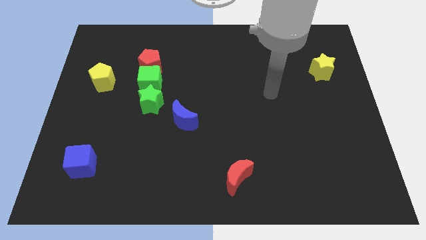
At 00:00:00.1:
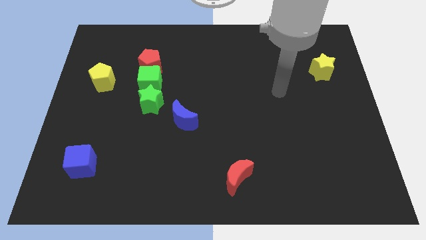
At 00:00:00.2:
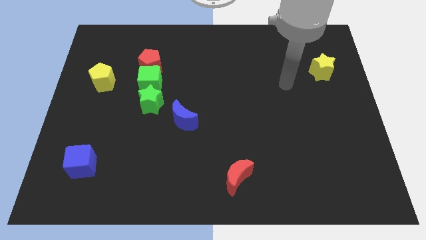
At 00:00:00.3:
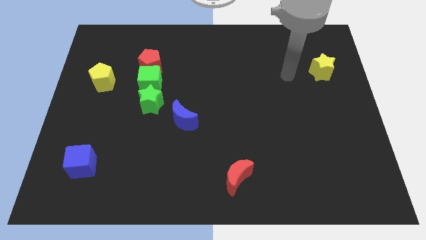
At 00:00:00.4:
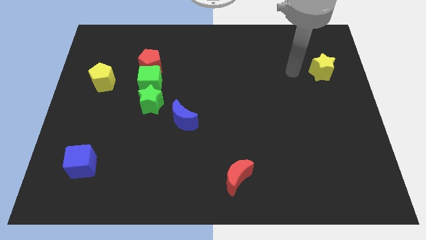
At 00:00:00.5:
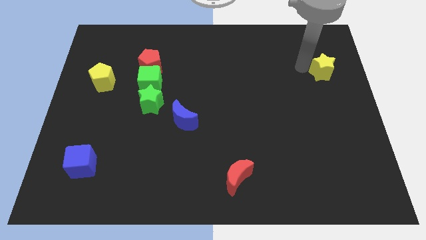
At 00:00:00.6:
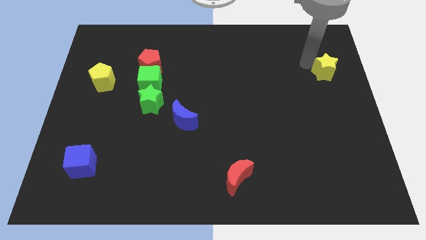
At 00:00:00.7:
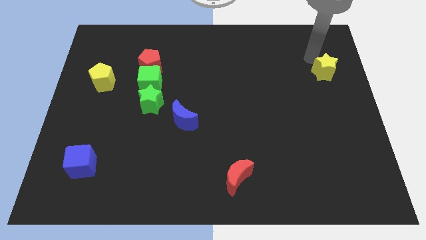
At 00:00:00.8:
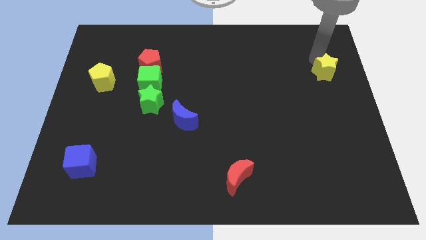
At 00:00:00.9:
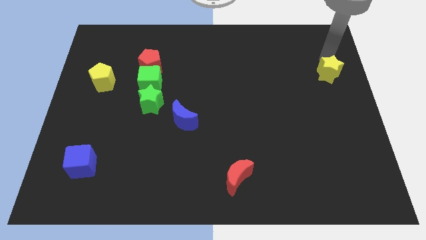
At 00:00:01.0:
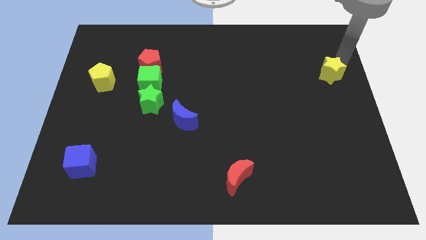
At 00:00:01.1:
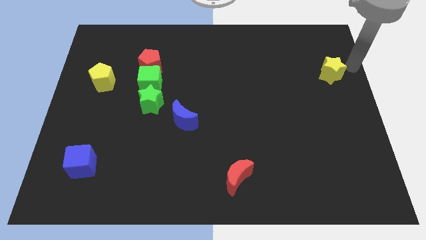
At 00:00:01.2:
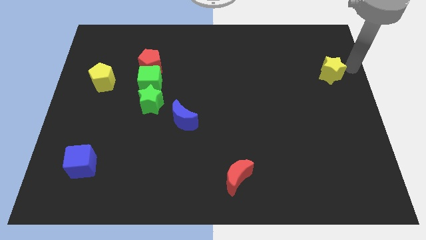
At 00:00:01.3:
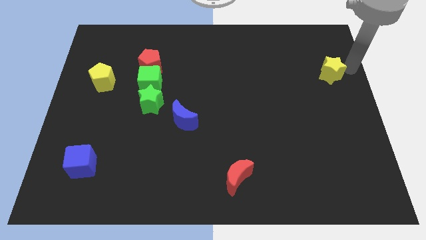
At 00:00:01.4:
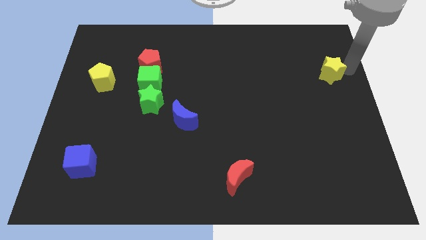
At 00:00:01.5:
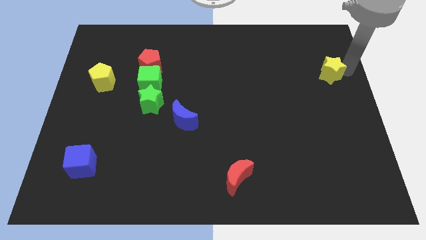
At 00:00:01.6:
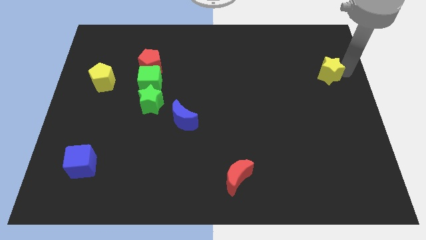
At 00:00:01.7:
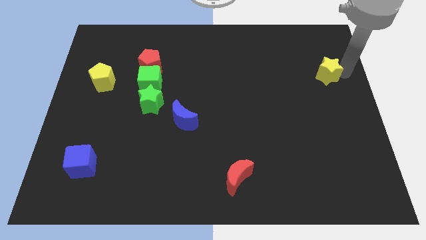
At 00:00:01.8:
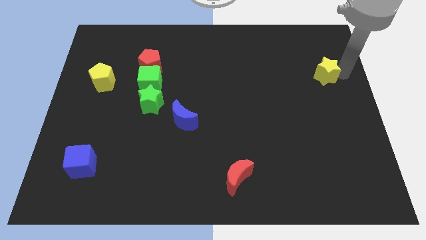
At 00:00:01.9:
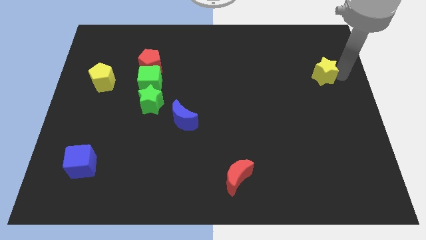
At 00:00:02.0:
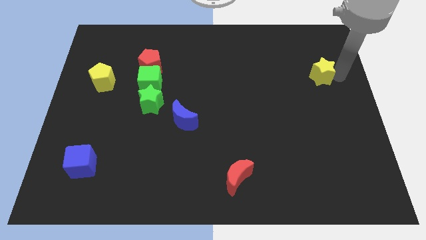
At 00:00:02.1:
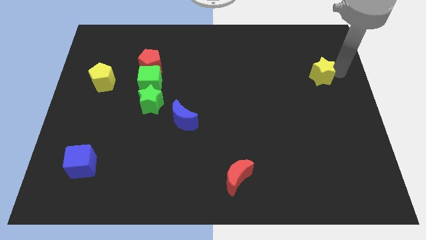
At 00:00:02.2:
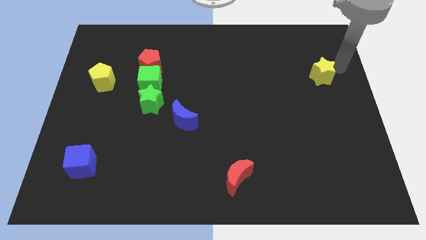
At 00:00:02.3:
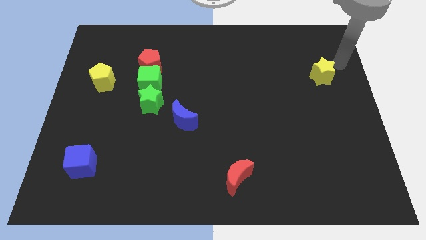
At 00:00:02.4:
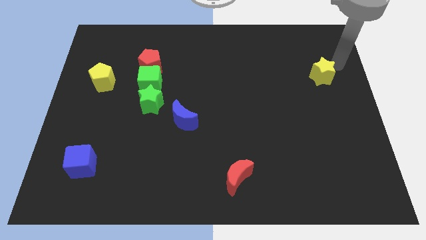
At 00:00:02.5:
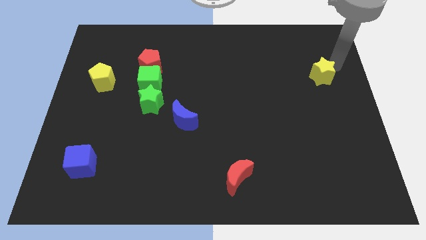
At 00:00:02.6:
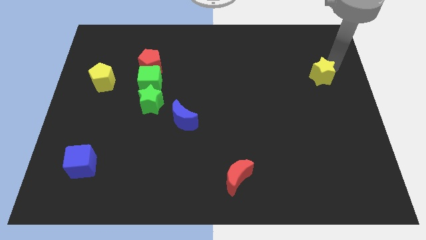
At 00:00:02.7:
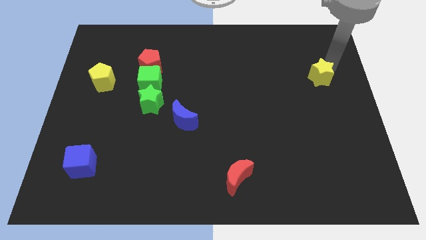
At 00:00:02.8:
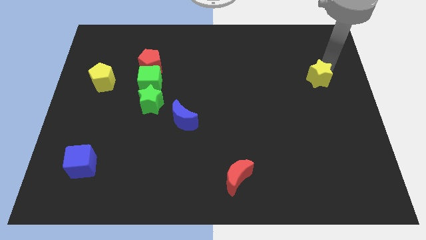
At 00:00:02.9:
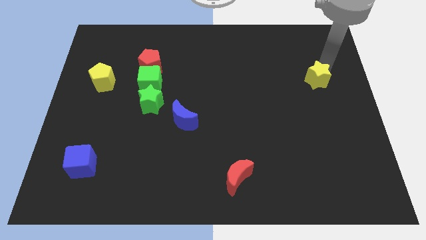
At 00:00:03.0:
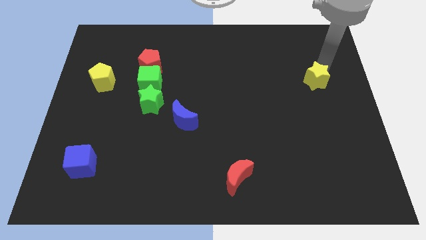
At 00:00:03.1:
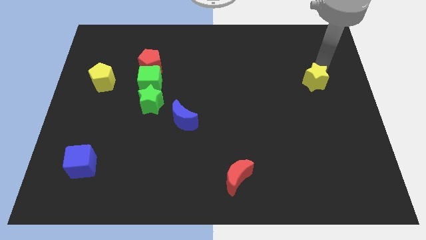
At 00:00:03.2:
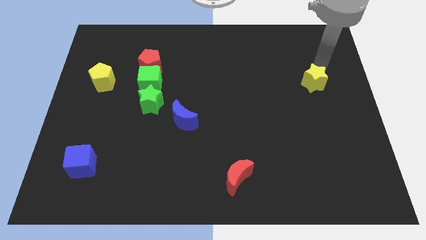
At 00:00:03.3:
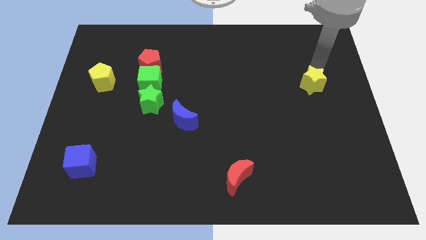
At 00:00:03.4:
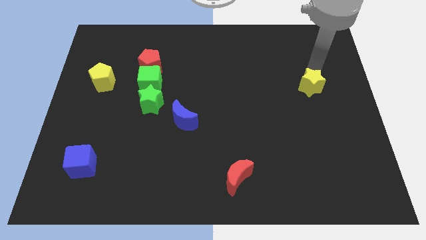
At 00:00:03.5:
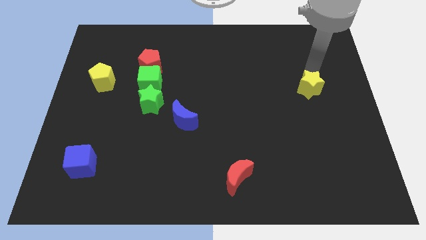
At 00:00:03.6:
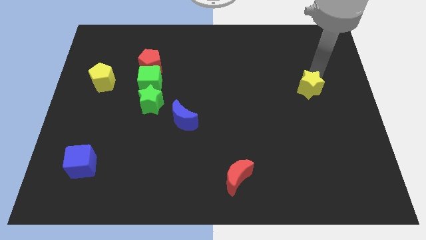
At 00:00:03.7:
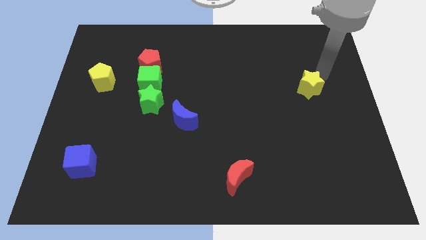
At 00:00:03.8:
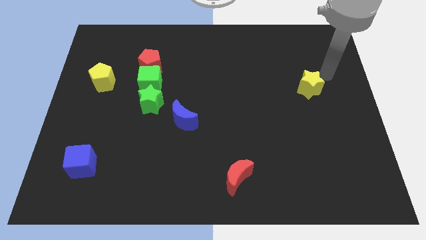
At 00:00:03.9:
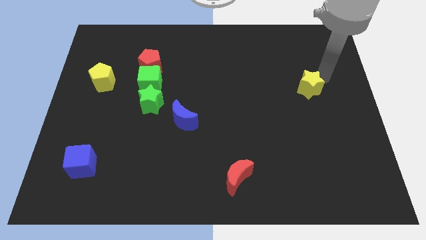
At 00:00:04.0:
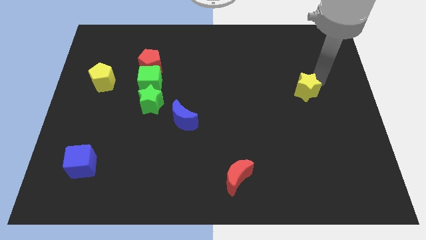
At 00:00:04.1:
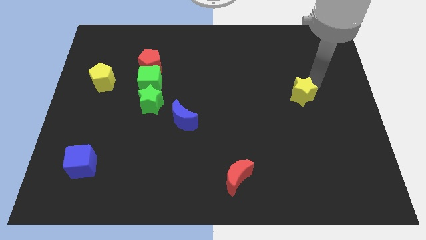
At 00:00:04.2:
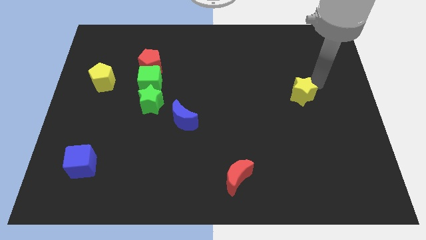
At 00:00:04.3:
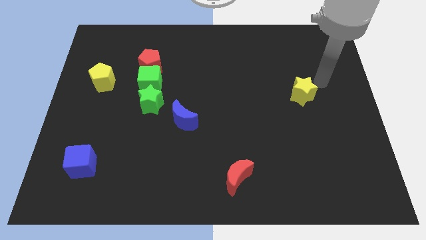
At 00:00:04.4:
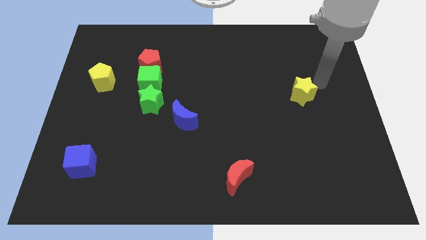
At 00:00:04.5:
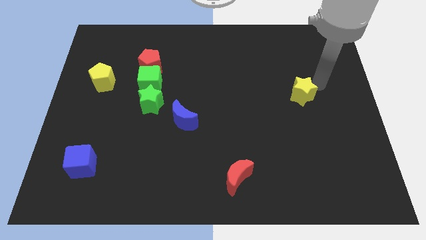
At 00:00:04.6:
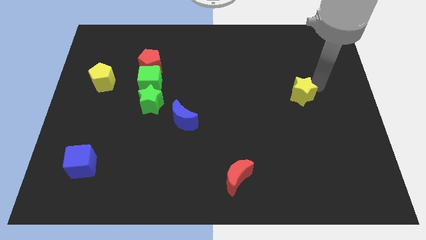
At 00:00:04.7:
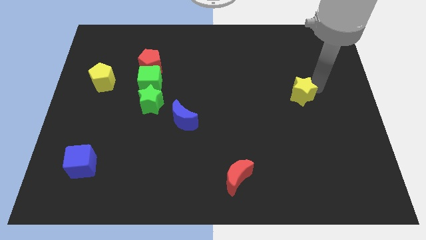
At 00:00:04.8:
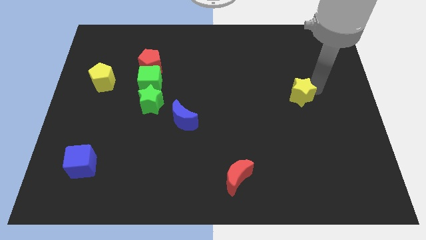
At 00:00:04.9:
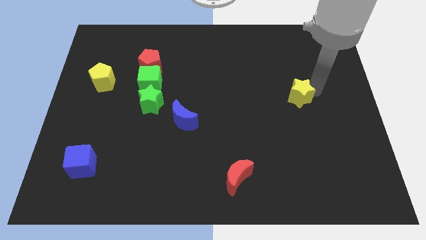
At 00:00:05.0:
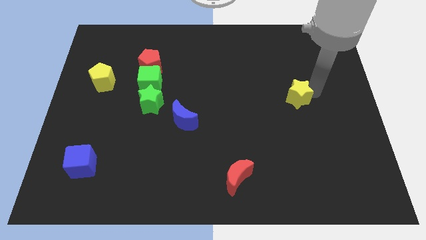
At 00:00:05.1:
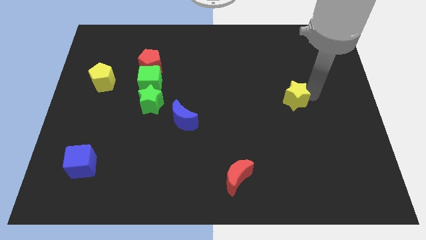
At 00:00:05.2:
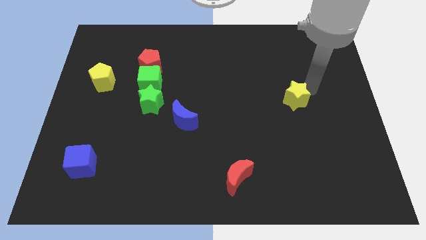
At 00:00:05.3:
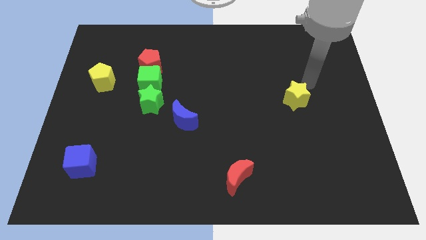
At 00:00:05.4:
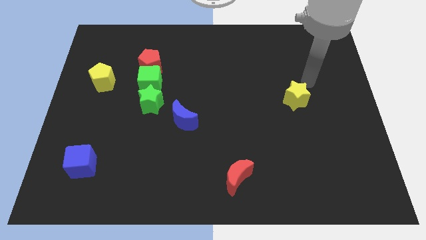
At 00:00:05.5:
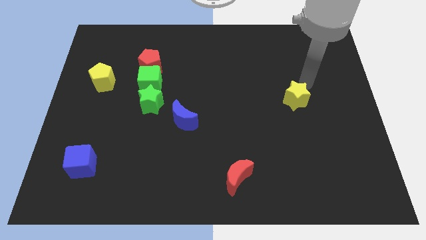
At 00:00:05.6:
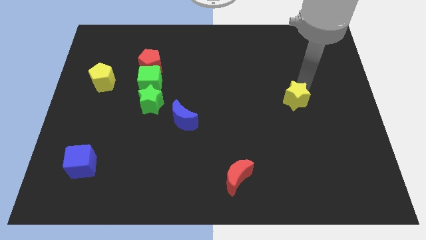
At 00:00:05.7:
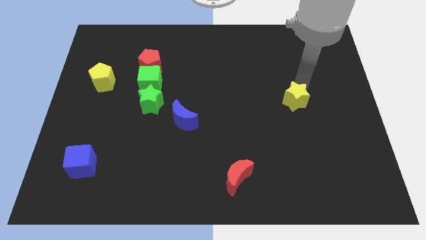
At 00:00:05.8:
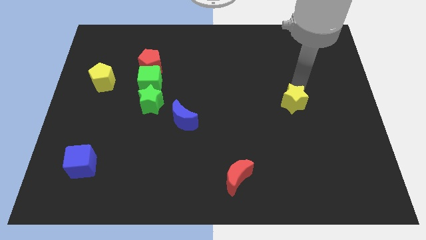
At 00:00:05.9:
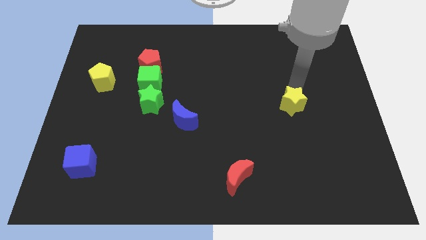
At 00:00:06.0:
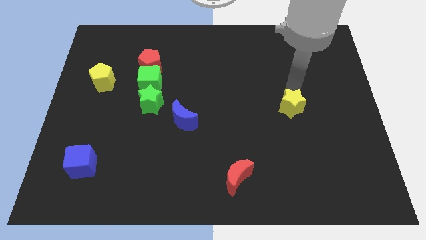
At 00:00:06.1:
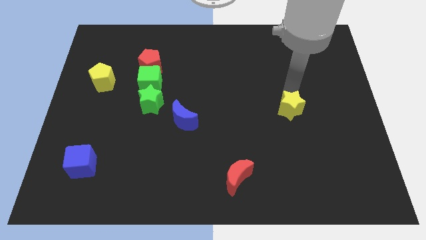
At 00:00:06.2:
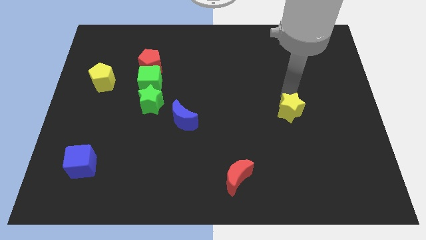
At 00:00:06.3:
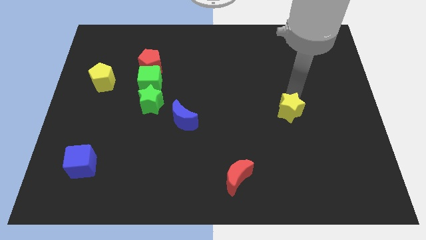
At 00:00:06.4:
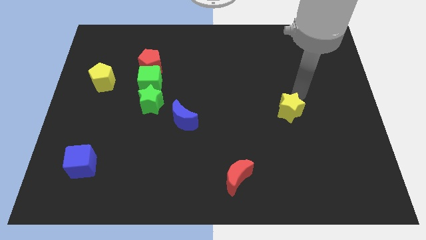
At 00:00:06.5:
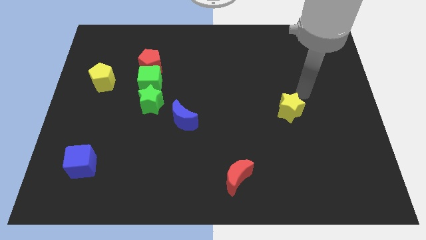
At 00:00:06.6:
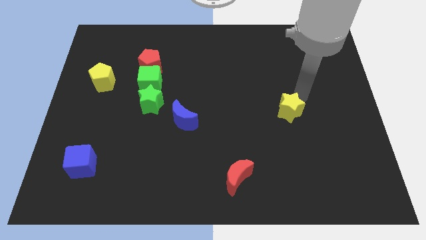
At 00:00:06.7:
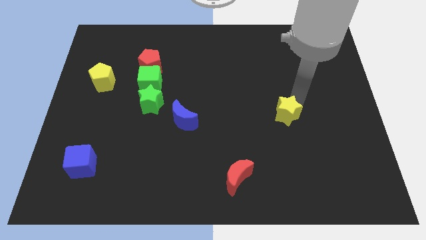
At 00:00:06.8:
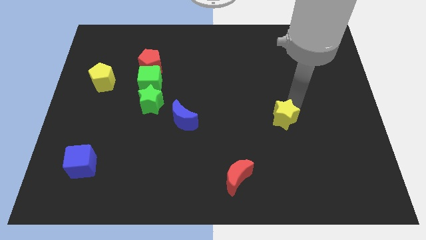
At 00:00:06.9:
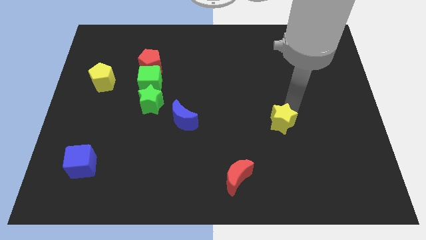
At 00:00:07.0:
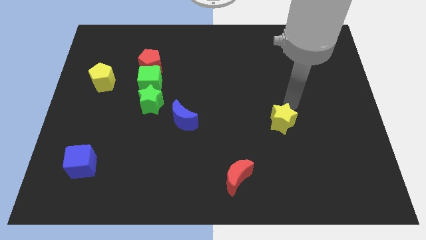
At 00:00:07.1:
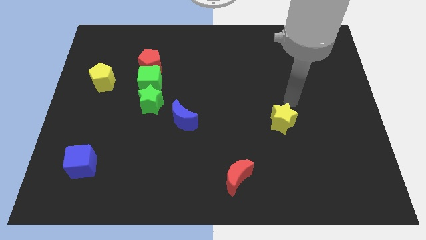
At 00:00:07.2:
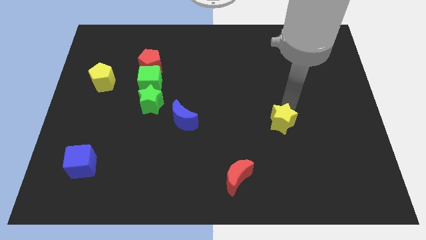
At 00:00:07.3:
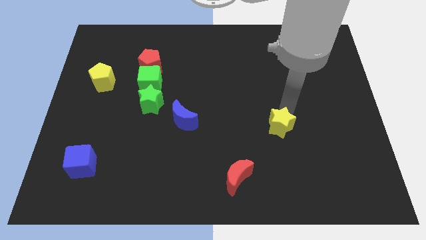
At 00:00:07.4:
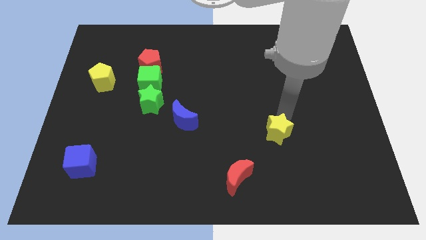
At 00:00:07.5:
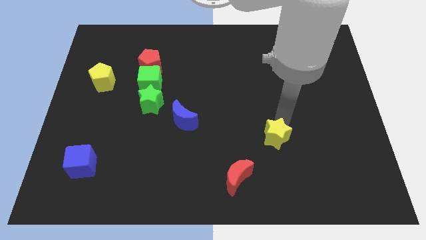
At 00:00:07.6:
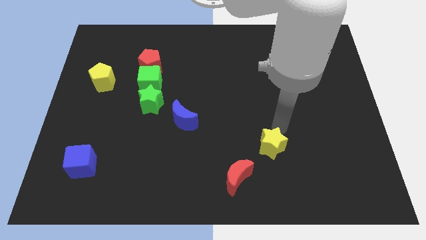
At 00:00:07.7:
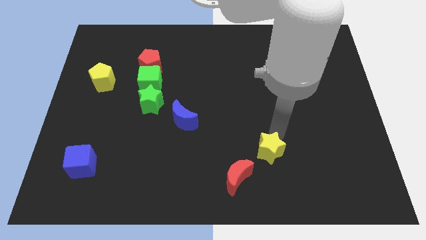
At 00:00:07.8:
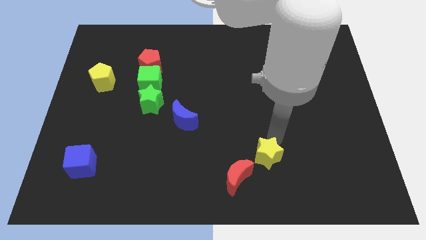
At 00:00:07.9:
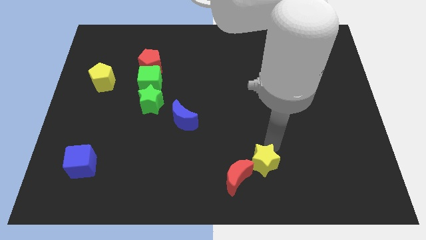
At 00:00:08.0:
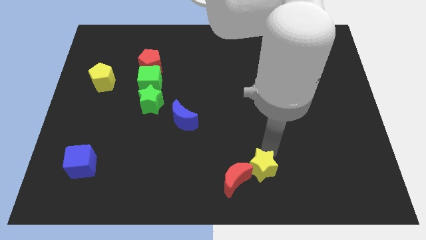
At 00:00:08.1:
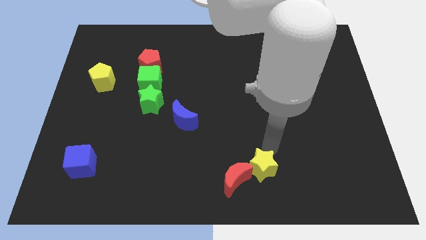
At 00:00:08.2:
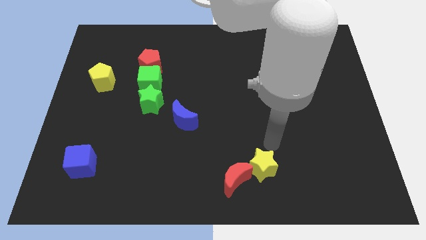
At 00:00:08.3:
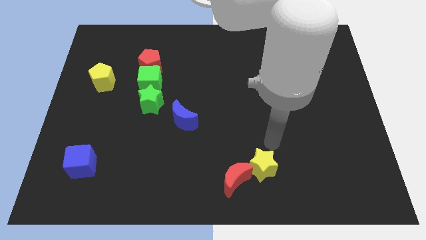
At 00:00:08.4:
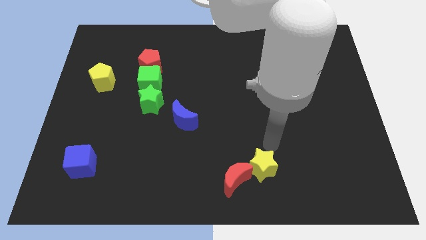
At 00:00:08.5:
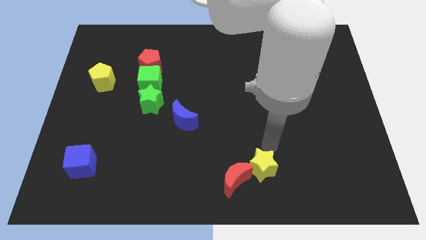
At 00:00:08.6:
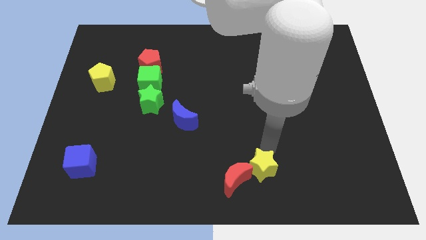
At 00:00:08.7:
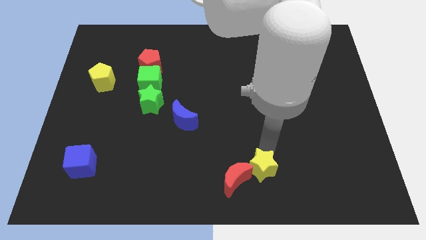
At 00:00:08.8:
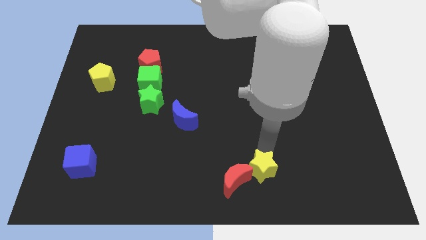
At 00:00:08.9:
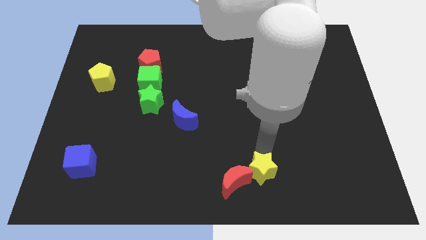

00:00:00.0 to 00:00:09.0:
push the yellow star to the bottom side
